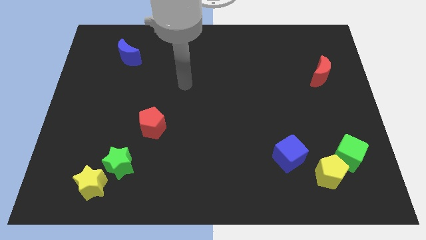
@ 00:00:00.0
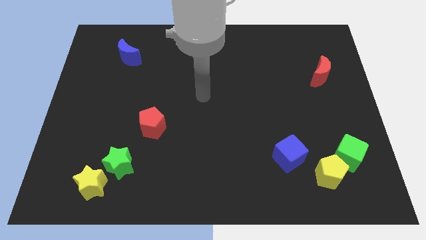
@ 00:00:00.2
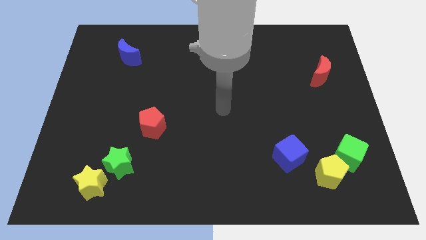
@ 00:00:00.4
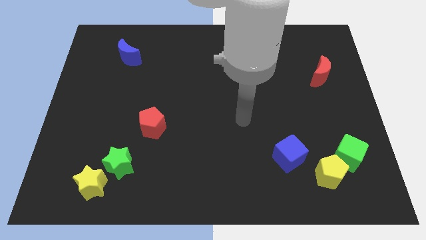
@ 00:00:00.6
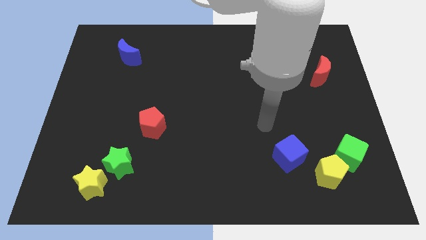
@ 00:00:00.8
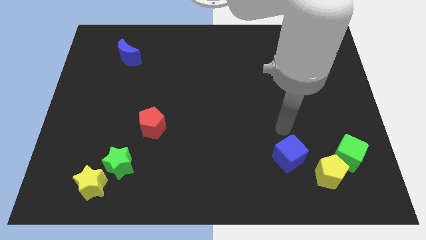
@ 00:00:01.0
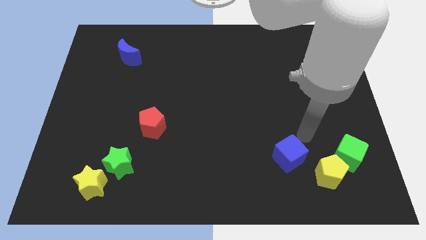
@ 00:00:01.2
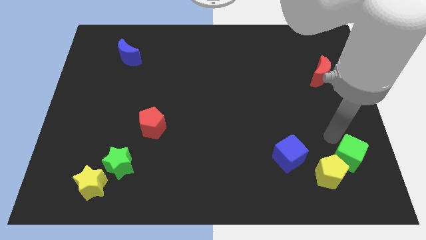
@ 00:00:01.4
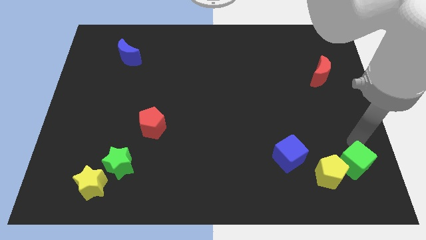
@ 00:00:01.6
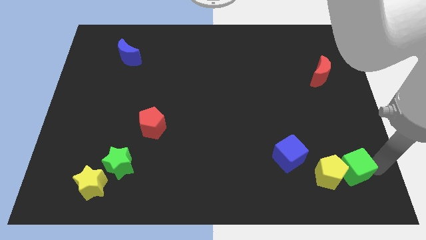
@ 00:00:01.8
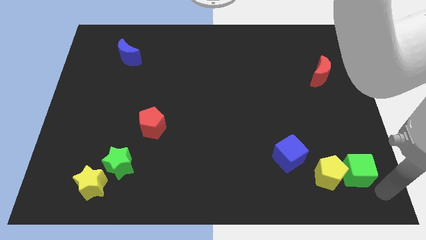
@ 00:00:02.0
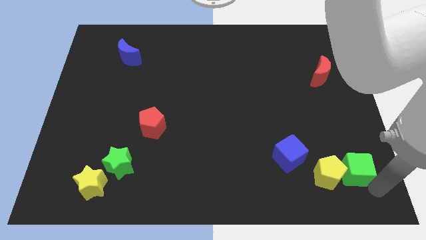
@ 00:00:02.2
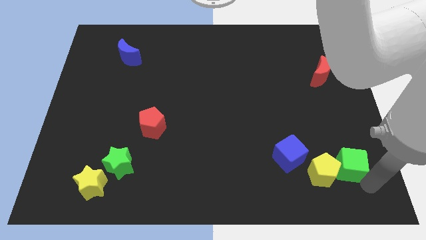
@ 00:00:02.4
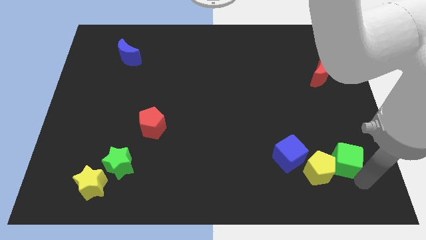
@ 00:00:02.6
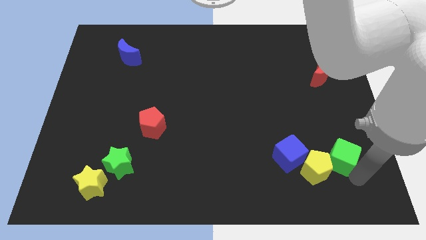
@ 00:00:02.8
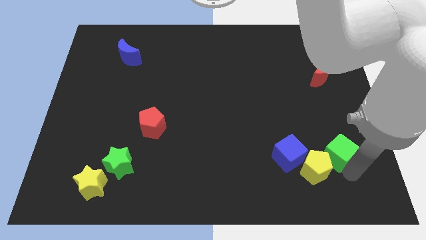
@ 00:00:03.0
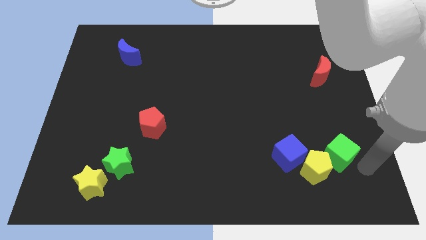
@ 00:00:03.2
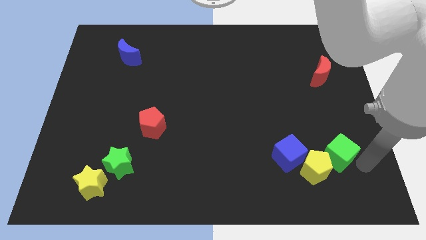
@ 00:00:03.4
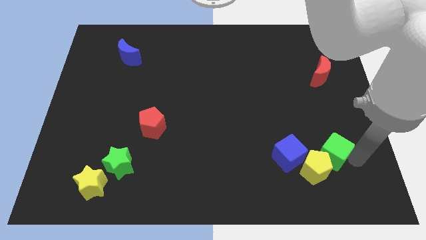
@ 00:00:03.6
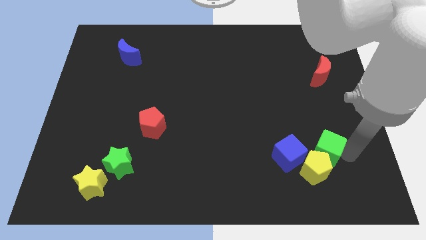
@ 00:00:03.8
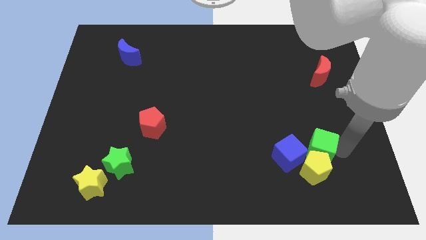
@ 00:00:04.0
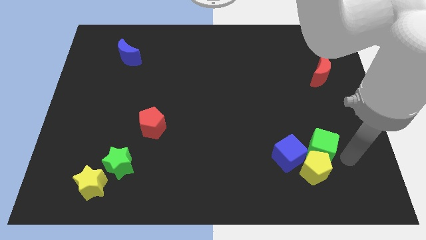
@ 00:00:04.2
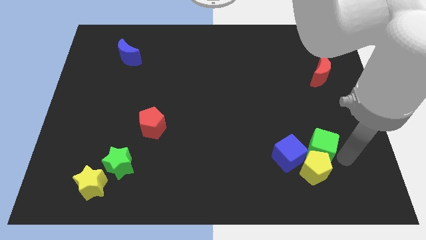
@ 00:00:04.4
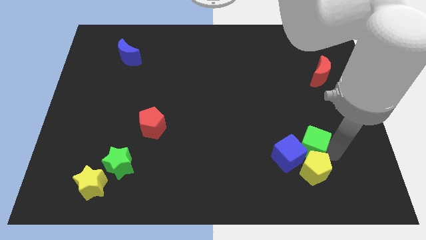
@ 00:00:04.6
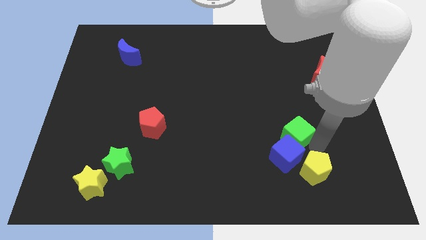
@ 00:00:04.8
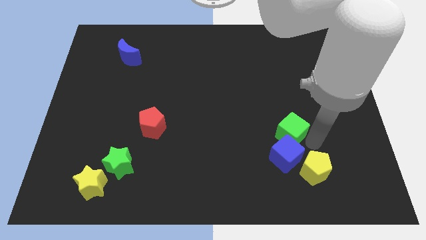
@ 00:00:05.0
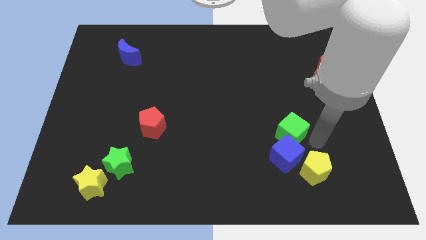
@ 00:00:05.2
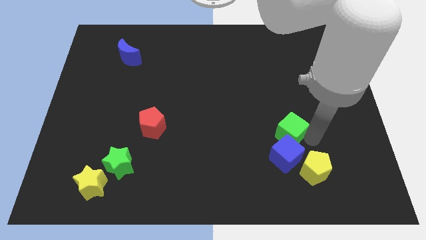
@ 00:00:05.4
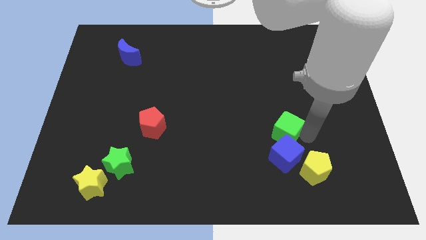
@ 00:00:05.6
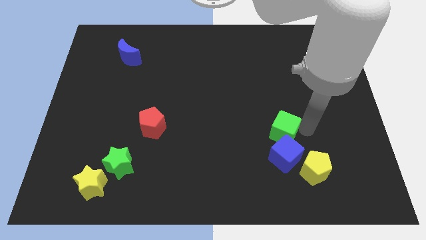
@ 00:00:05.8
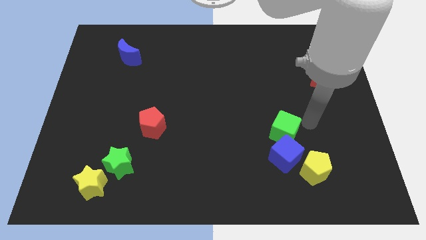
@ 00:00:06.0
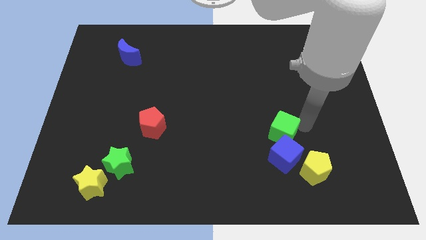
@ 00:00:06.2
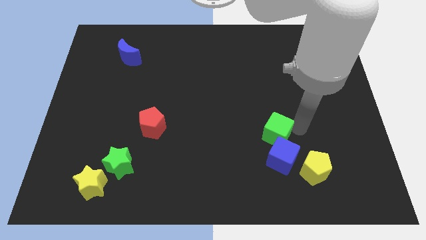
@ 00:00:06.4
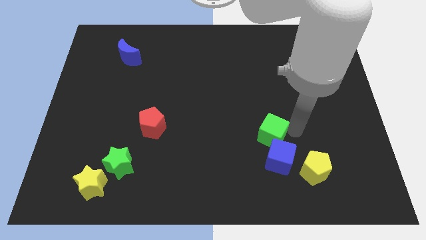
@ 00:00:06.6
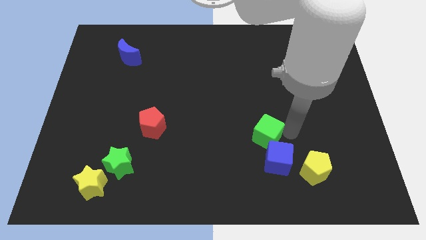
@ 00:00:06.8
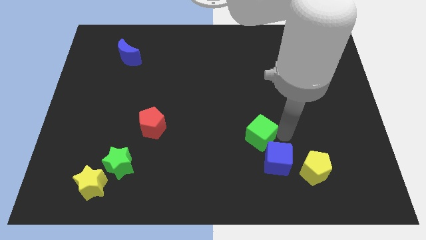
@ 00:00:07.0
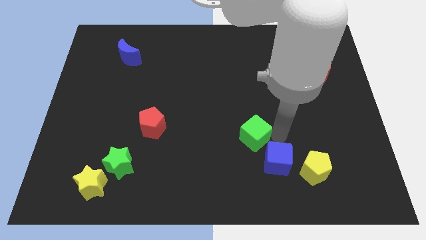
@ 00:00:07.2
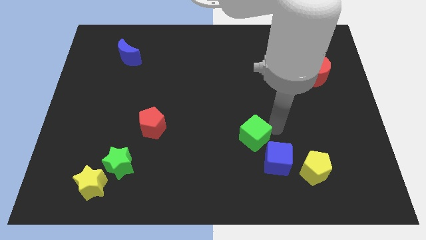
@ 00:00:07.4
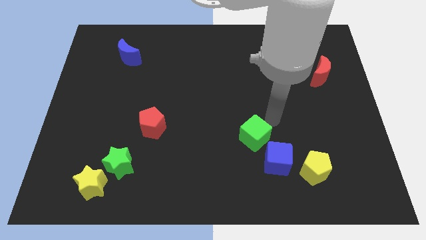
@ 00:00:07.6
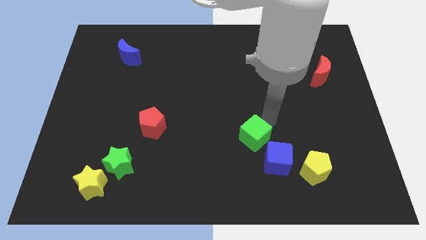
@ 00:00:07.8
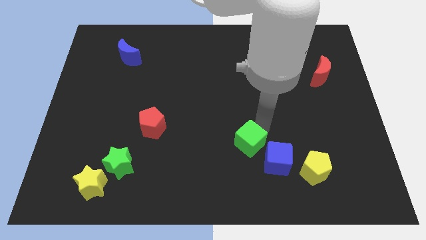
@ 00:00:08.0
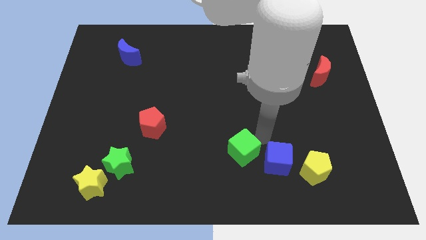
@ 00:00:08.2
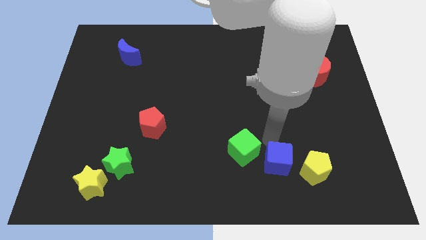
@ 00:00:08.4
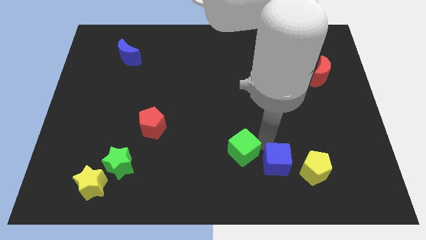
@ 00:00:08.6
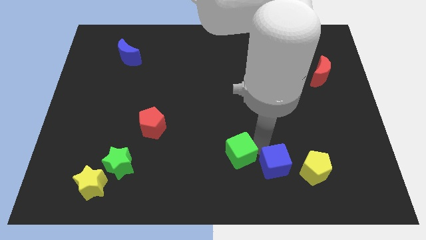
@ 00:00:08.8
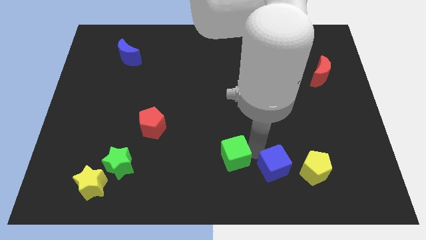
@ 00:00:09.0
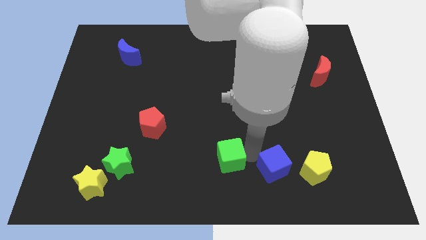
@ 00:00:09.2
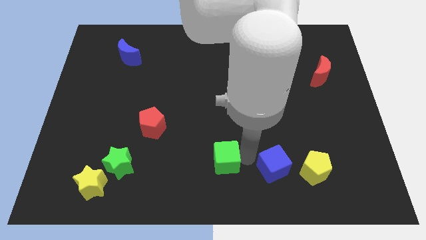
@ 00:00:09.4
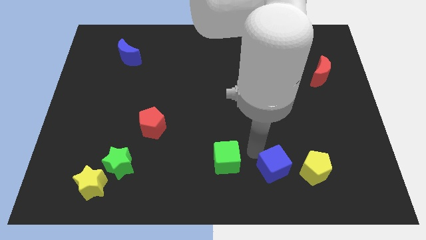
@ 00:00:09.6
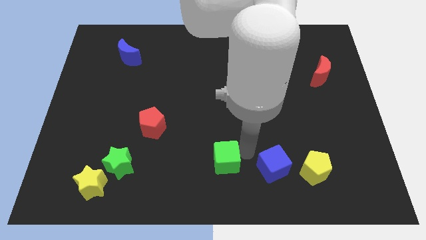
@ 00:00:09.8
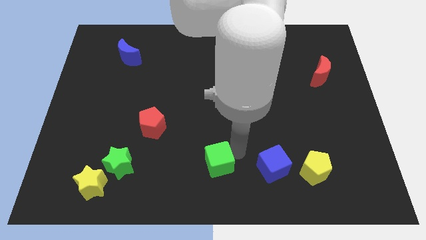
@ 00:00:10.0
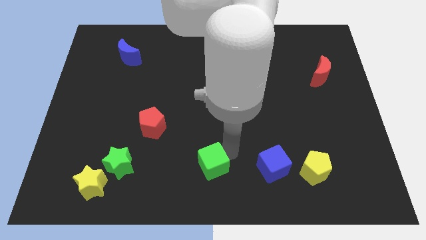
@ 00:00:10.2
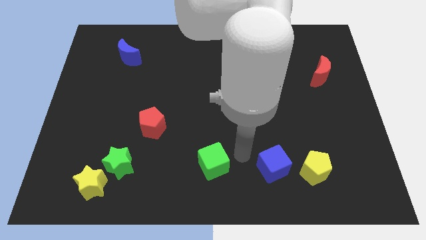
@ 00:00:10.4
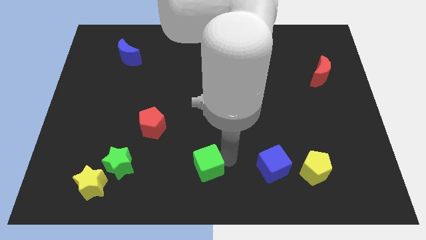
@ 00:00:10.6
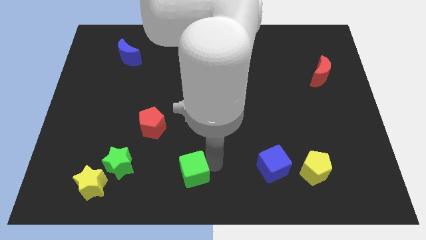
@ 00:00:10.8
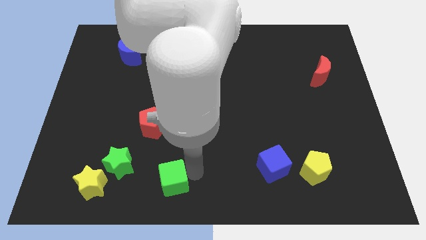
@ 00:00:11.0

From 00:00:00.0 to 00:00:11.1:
put the green cube to the right side of the yellow star

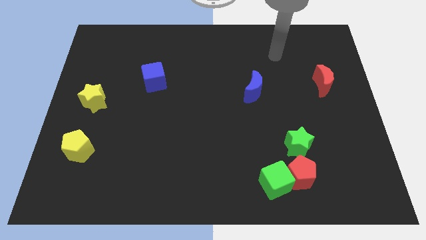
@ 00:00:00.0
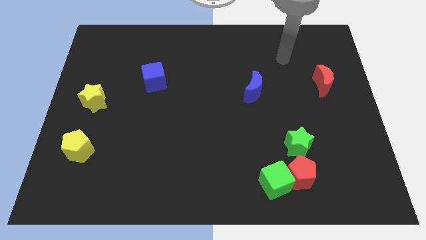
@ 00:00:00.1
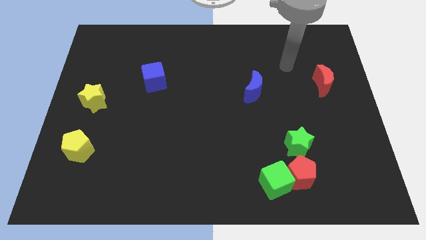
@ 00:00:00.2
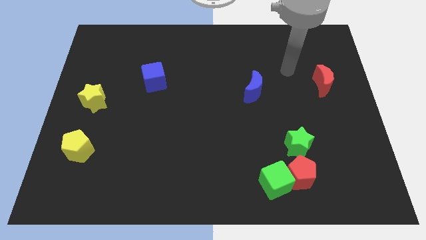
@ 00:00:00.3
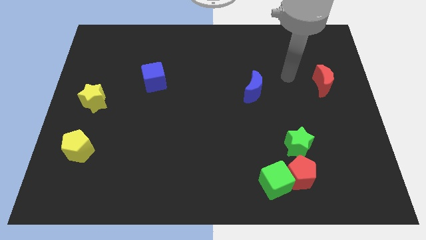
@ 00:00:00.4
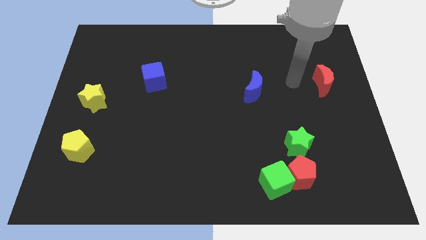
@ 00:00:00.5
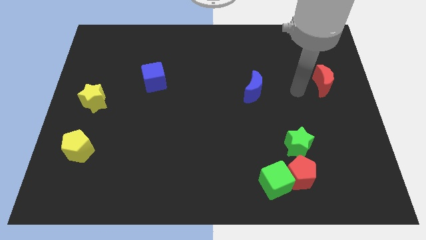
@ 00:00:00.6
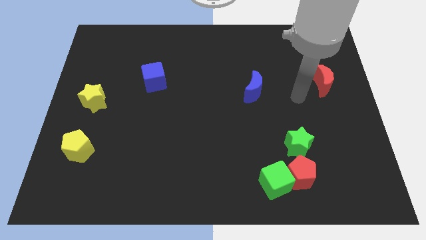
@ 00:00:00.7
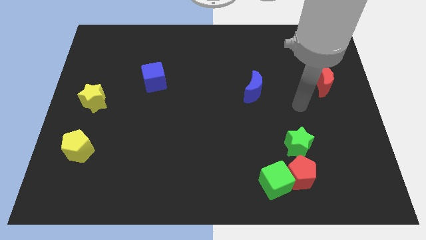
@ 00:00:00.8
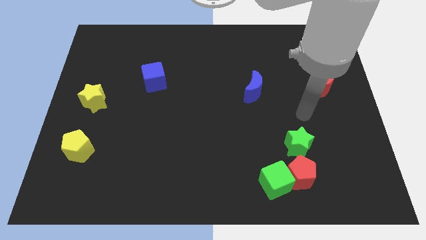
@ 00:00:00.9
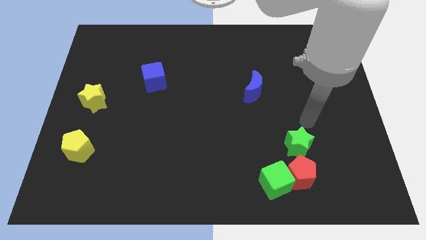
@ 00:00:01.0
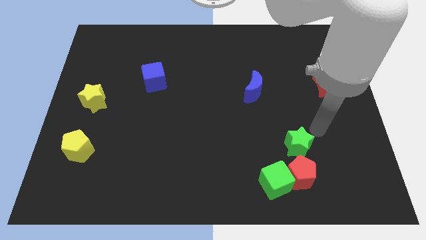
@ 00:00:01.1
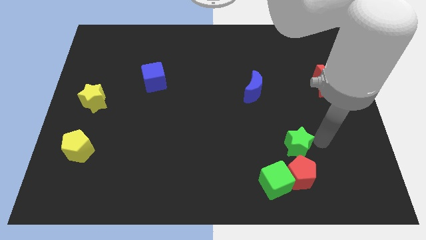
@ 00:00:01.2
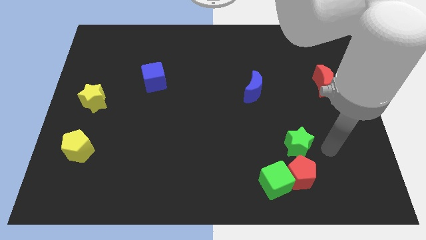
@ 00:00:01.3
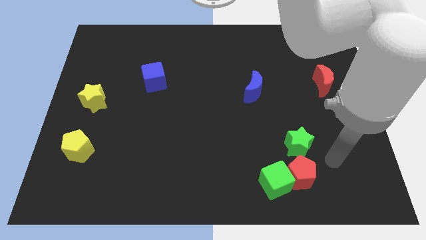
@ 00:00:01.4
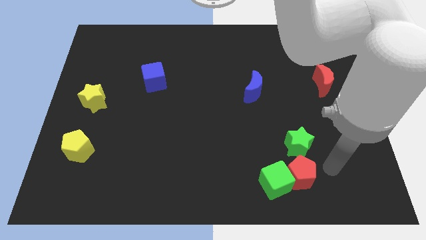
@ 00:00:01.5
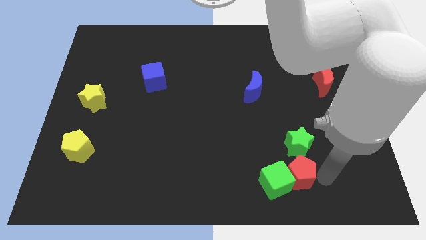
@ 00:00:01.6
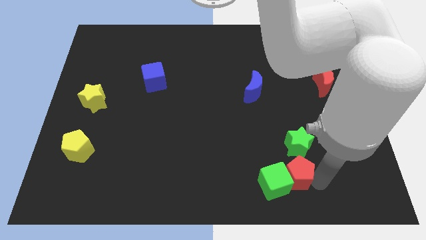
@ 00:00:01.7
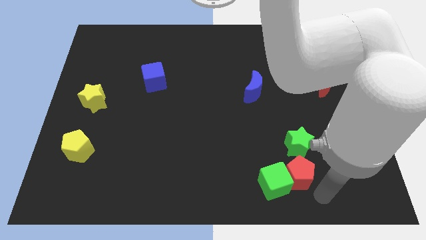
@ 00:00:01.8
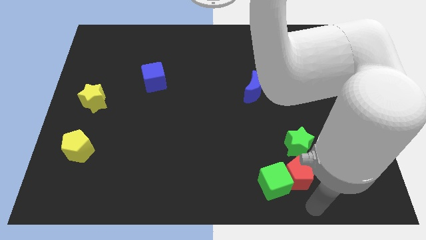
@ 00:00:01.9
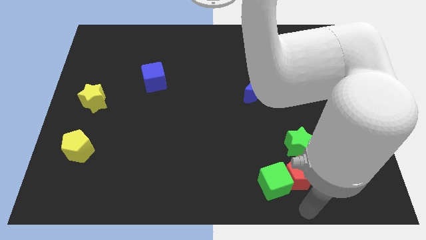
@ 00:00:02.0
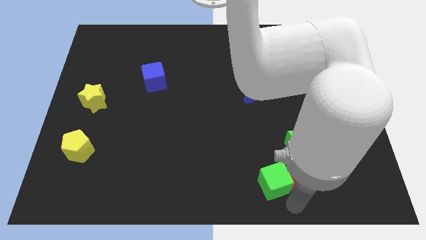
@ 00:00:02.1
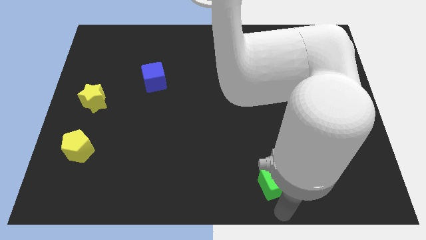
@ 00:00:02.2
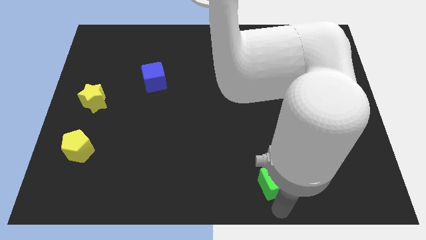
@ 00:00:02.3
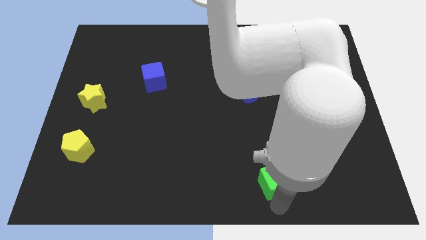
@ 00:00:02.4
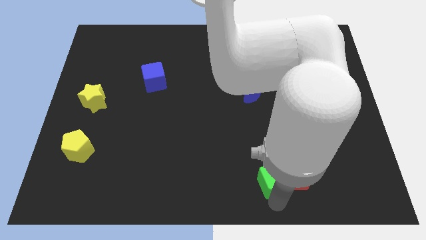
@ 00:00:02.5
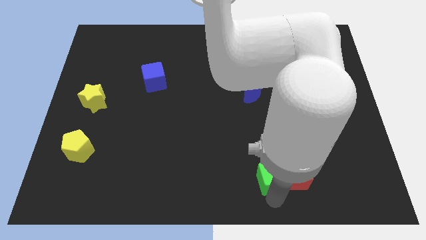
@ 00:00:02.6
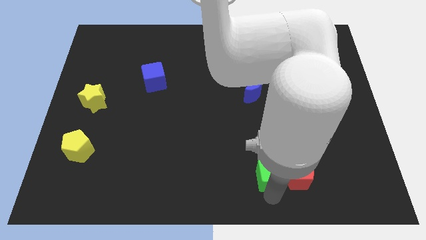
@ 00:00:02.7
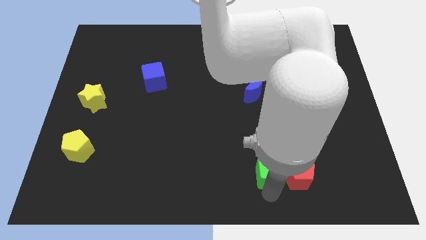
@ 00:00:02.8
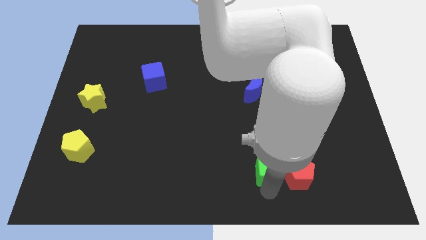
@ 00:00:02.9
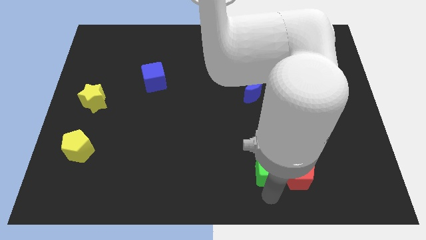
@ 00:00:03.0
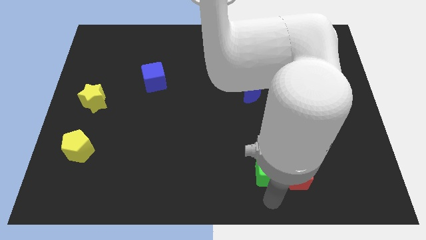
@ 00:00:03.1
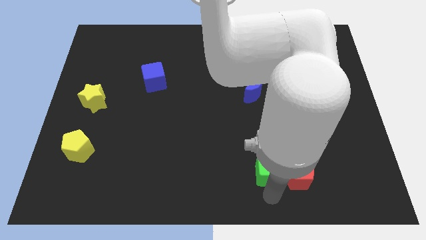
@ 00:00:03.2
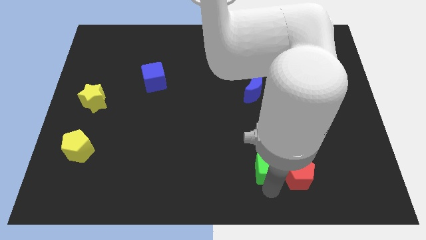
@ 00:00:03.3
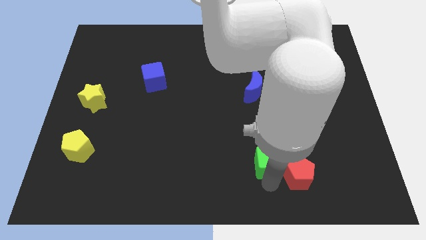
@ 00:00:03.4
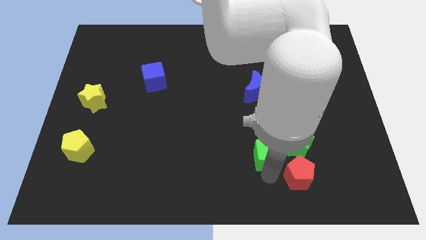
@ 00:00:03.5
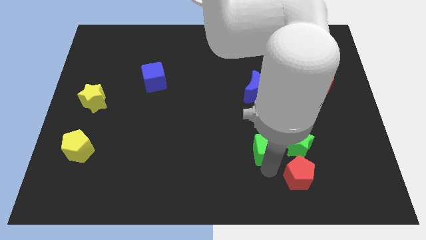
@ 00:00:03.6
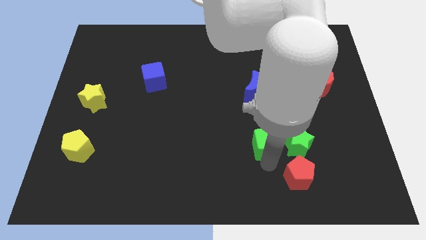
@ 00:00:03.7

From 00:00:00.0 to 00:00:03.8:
push the green cube to the bottom of the blue moon
